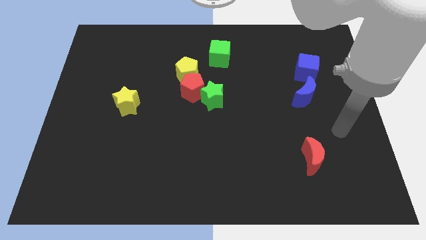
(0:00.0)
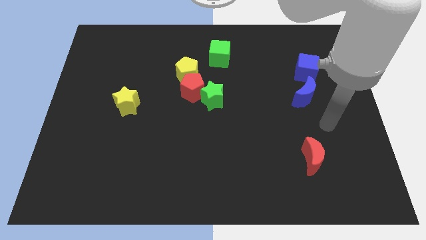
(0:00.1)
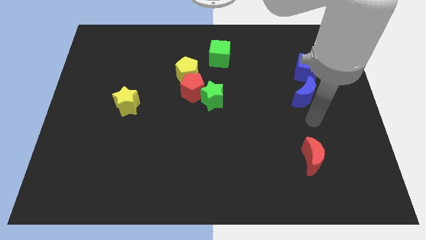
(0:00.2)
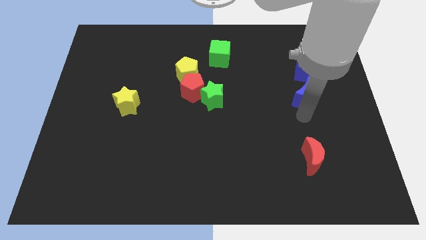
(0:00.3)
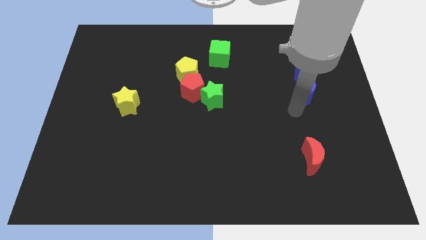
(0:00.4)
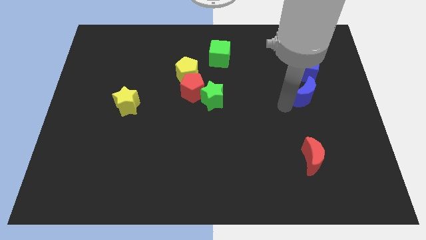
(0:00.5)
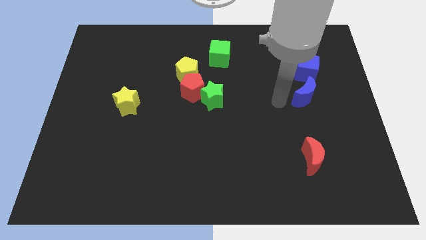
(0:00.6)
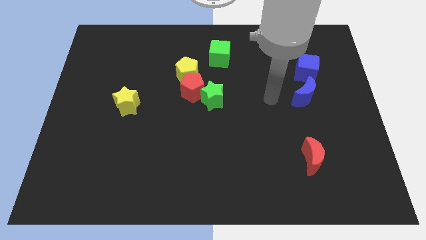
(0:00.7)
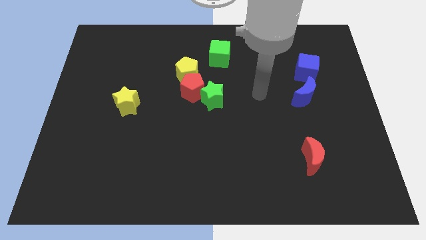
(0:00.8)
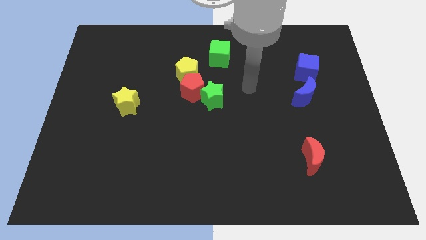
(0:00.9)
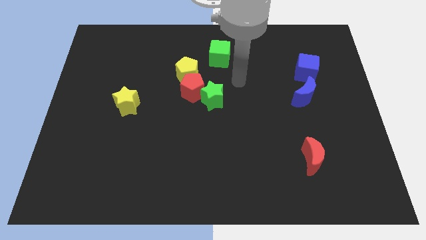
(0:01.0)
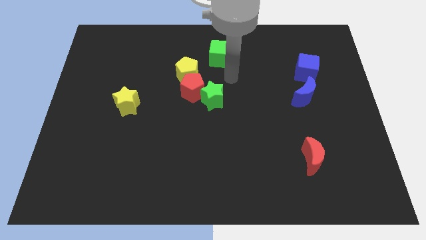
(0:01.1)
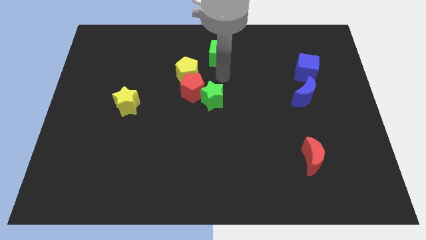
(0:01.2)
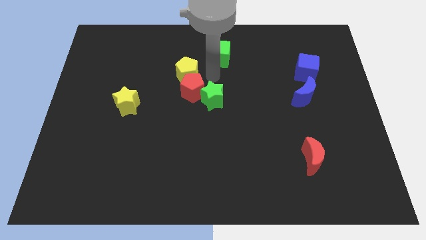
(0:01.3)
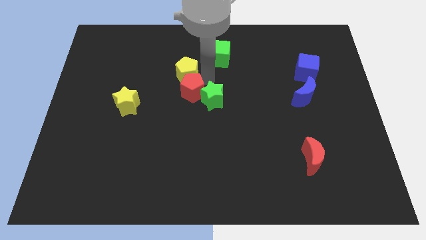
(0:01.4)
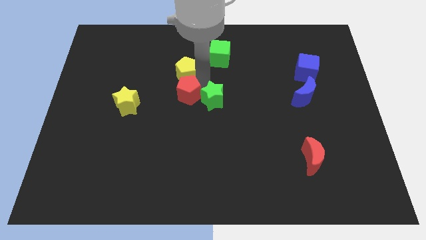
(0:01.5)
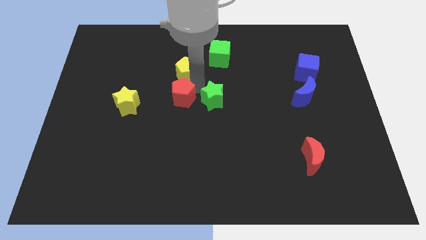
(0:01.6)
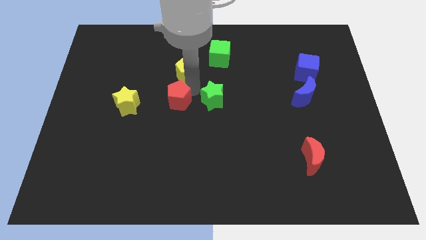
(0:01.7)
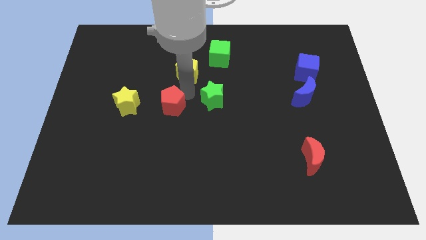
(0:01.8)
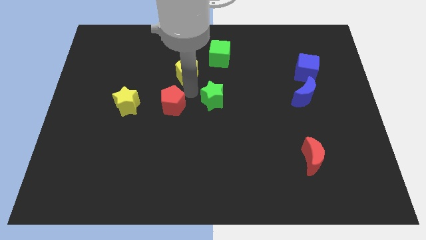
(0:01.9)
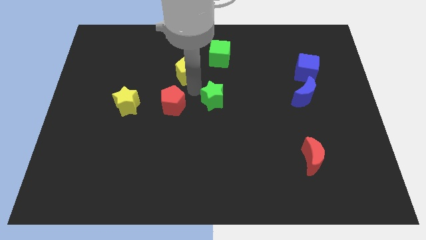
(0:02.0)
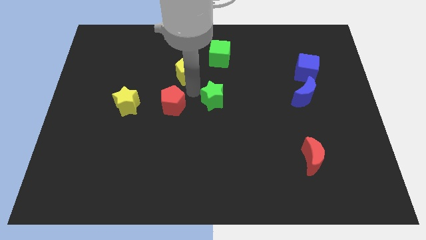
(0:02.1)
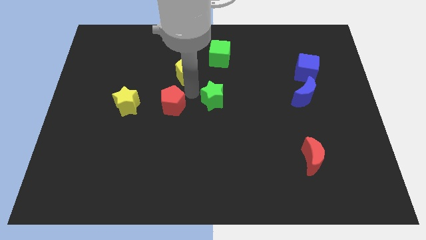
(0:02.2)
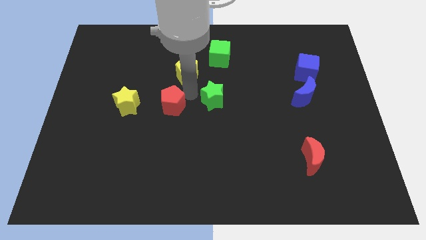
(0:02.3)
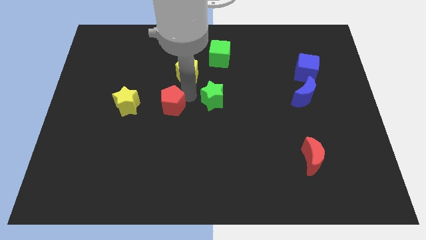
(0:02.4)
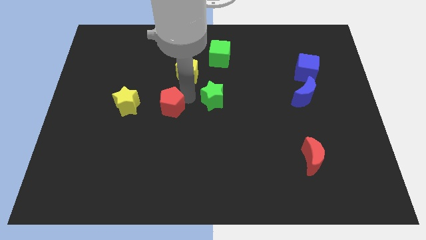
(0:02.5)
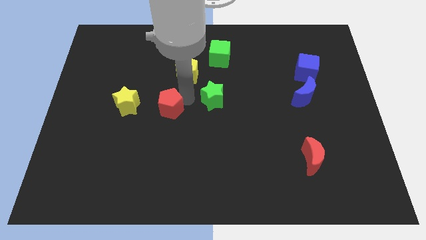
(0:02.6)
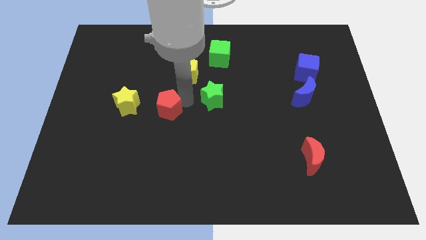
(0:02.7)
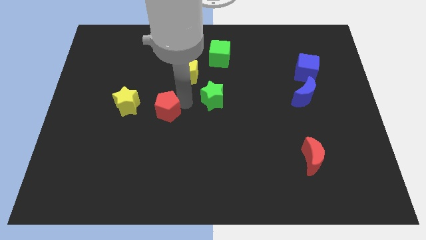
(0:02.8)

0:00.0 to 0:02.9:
pull the red pentagon apart from the green star and yellow pentagon

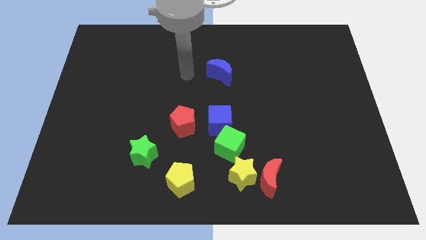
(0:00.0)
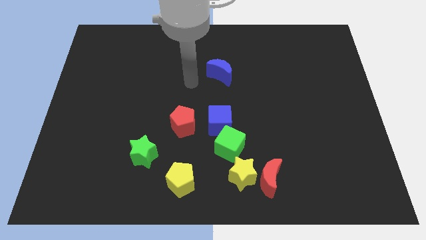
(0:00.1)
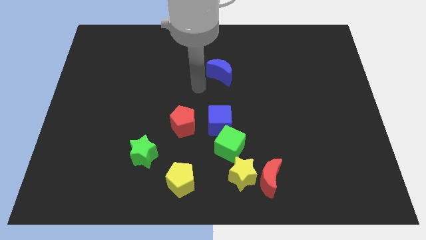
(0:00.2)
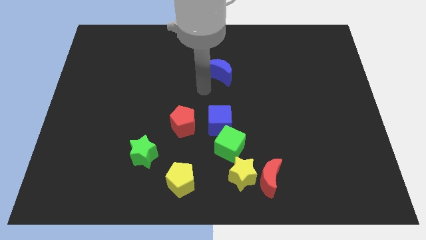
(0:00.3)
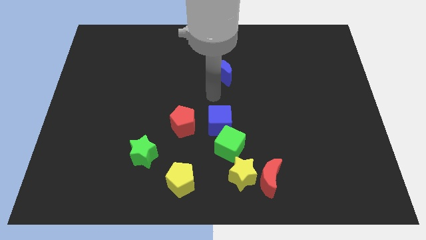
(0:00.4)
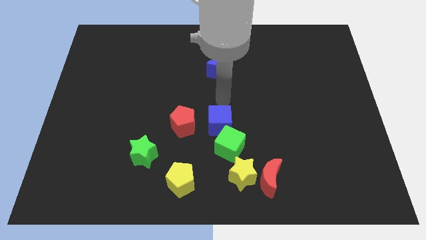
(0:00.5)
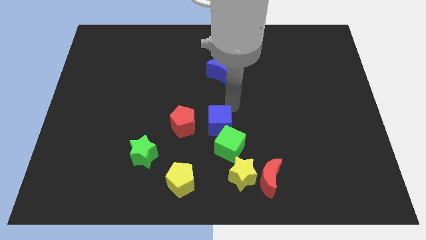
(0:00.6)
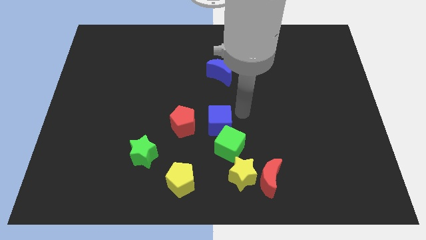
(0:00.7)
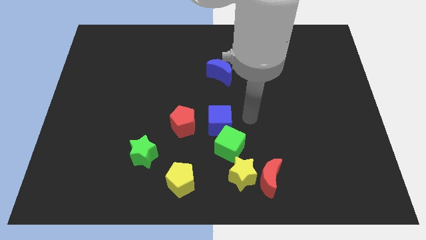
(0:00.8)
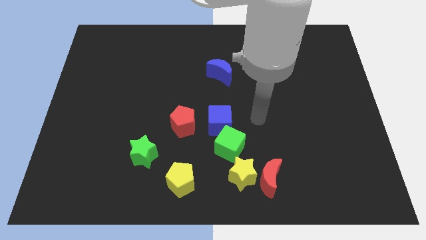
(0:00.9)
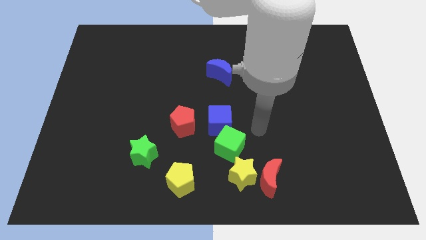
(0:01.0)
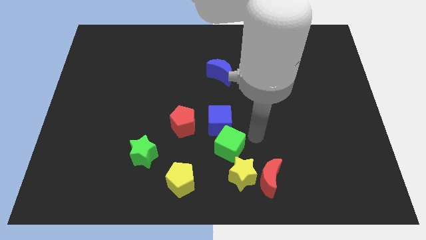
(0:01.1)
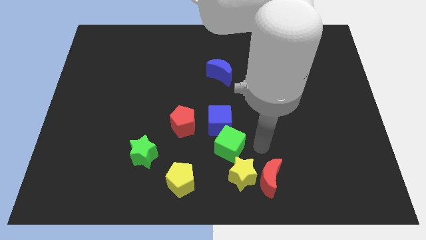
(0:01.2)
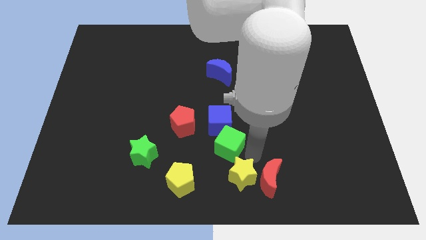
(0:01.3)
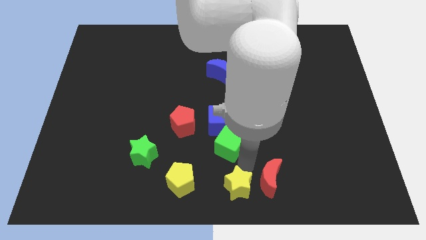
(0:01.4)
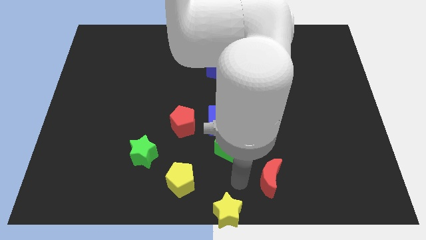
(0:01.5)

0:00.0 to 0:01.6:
pull the red moon apart from the yellow star

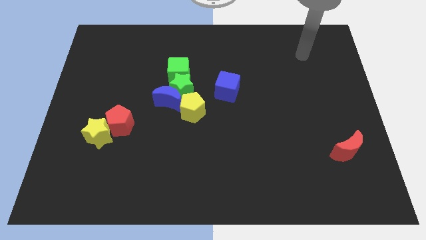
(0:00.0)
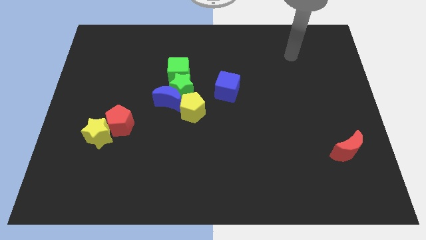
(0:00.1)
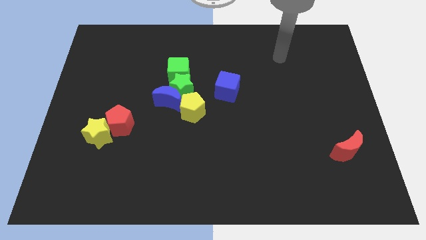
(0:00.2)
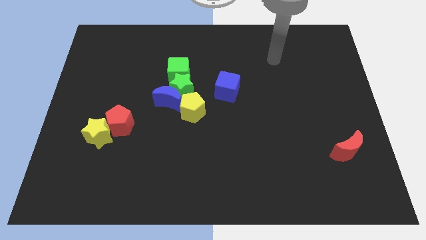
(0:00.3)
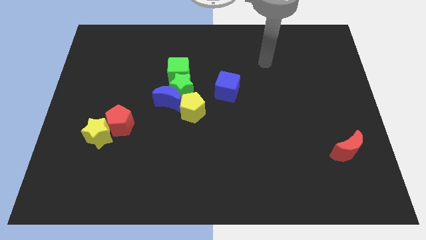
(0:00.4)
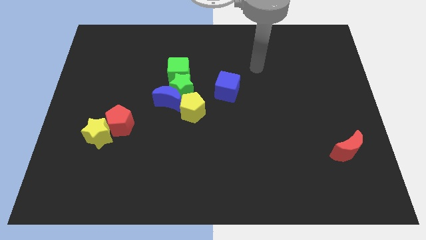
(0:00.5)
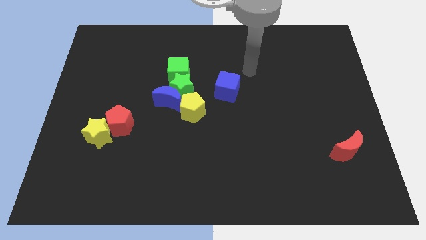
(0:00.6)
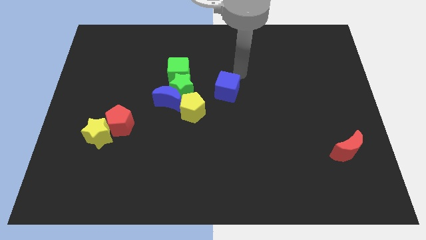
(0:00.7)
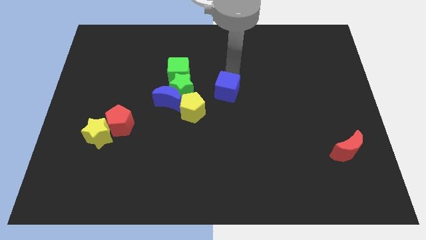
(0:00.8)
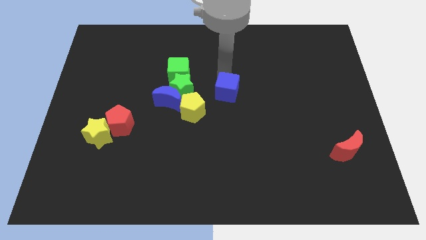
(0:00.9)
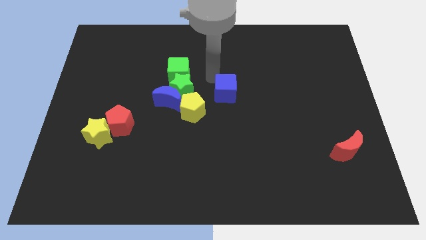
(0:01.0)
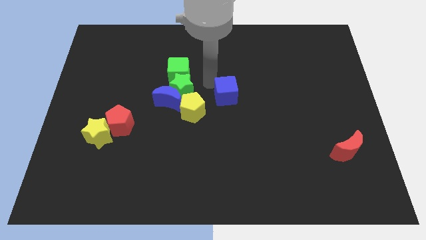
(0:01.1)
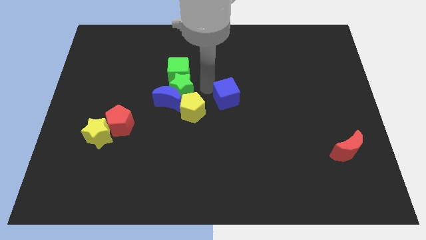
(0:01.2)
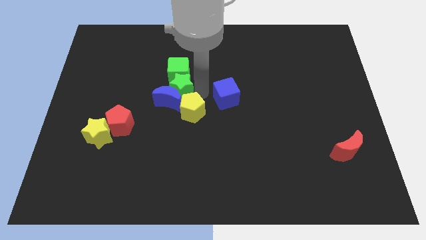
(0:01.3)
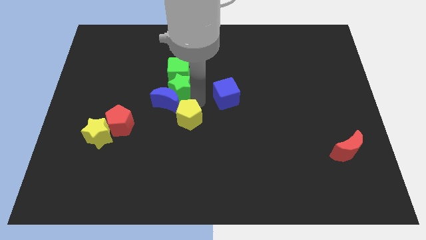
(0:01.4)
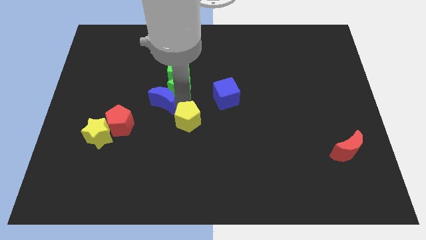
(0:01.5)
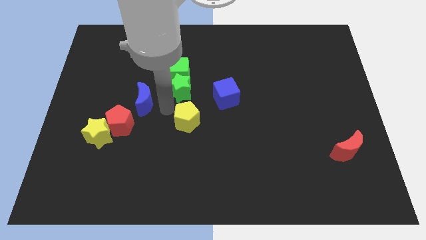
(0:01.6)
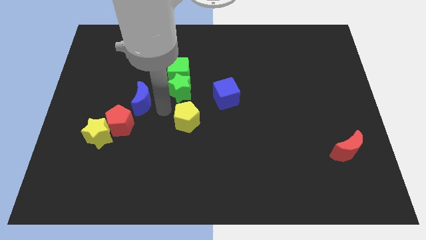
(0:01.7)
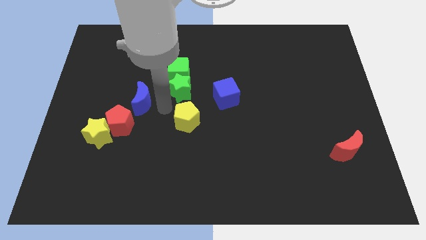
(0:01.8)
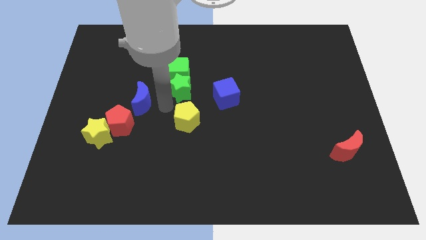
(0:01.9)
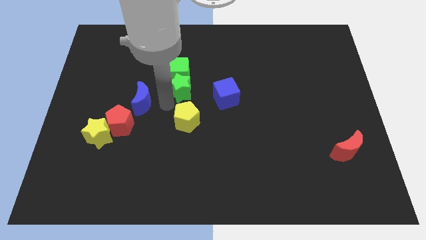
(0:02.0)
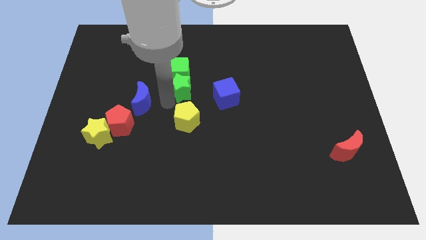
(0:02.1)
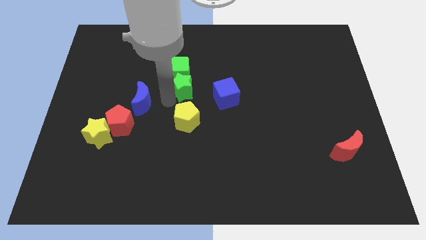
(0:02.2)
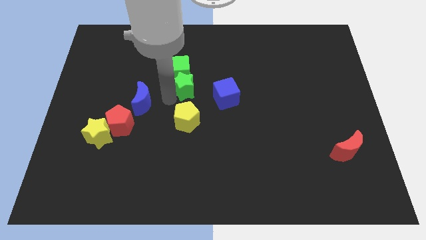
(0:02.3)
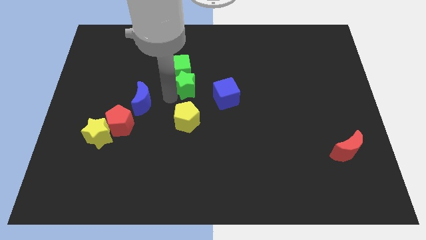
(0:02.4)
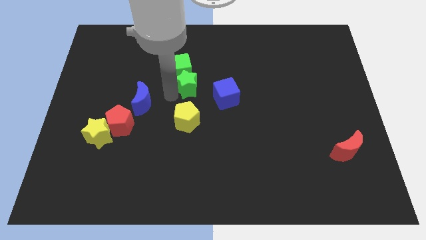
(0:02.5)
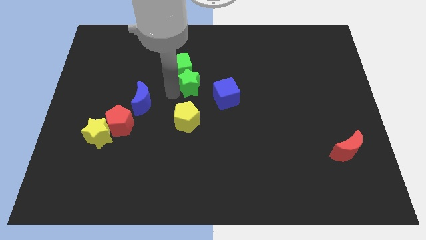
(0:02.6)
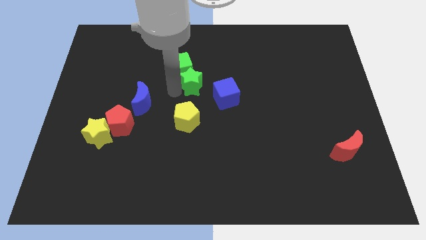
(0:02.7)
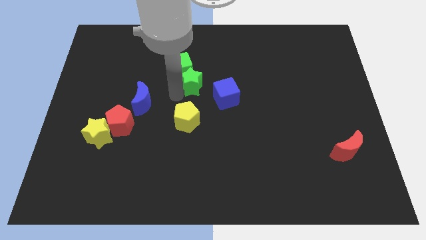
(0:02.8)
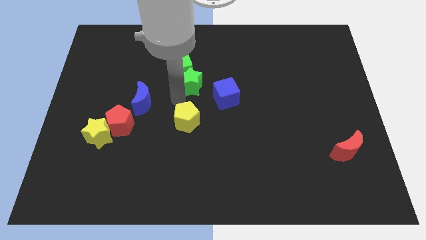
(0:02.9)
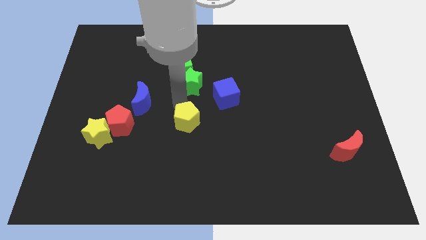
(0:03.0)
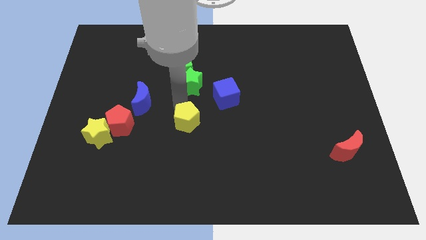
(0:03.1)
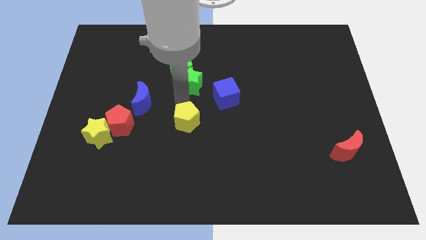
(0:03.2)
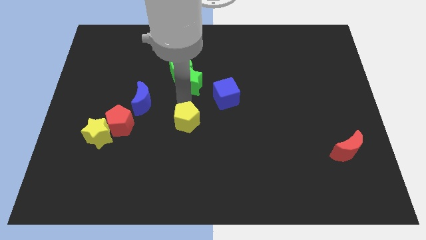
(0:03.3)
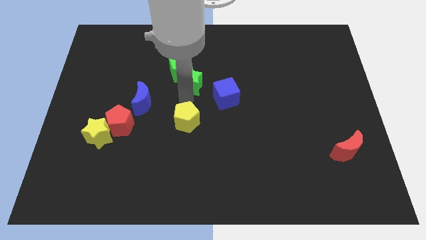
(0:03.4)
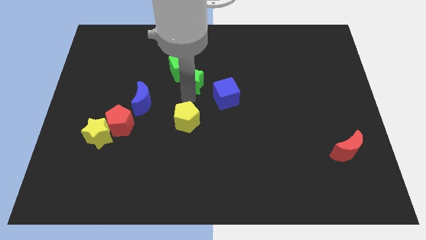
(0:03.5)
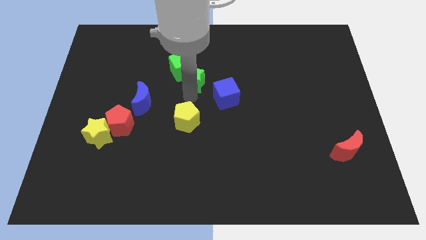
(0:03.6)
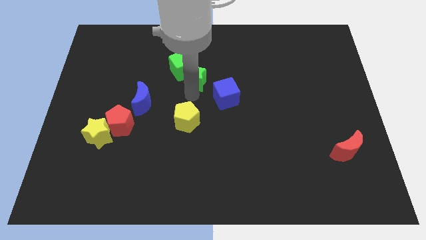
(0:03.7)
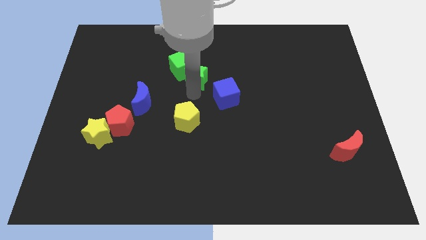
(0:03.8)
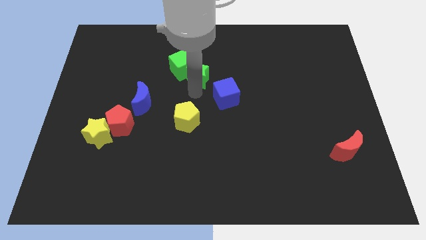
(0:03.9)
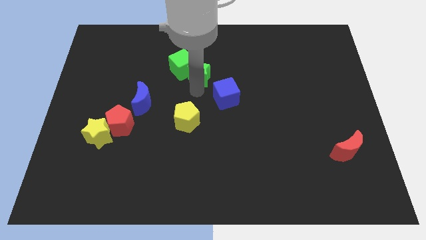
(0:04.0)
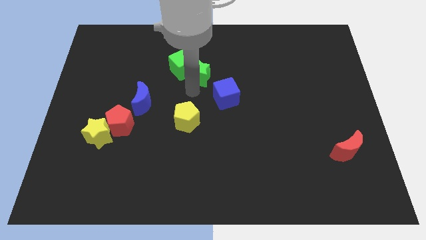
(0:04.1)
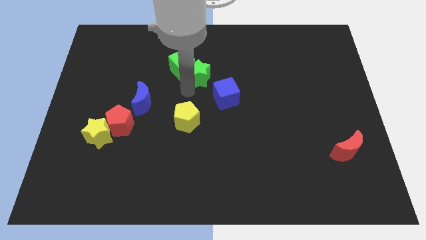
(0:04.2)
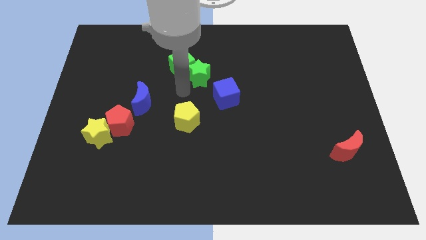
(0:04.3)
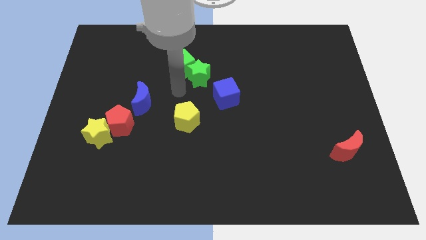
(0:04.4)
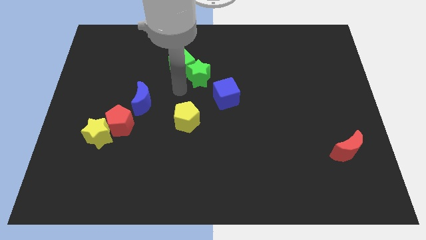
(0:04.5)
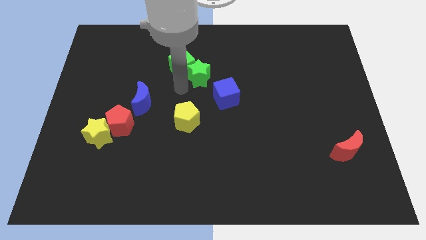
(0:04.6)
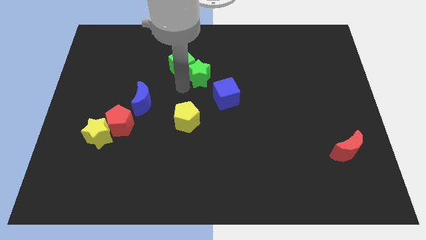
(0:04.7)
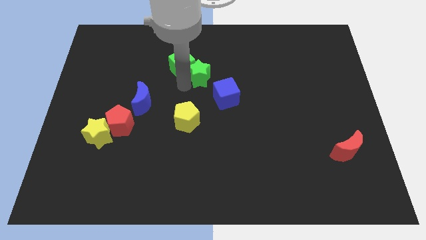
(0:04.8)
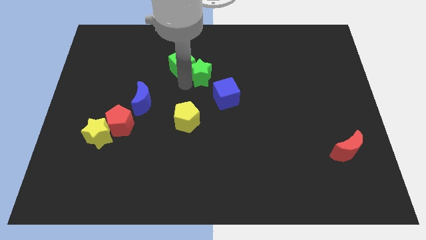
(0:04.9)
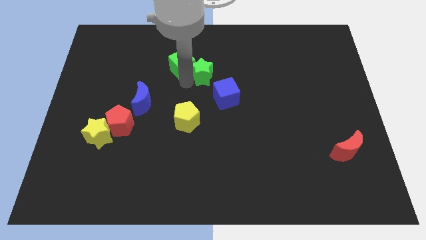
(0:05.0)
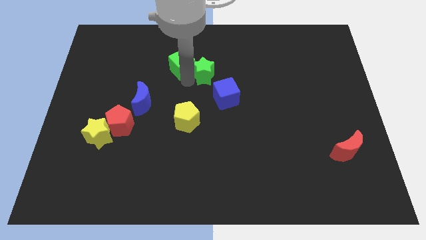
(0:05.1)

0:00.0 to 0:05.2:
separate the green star from the group of blocks
